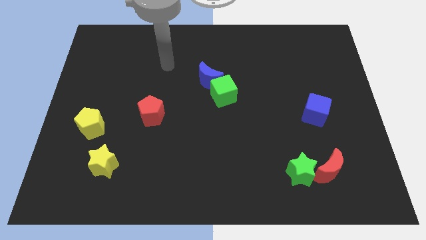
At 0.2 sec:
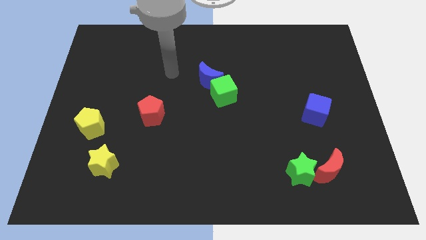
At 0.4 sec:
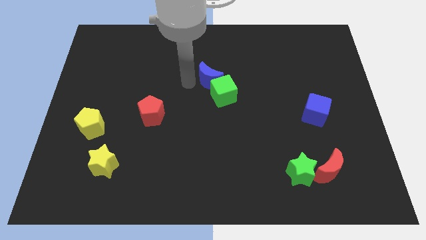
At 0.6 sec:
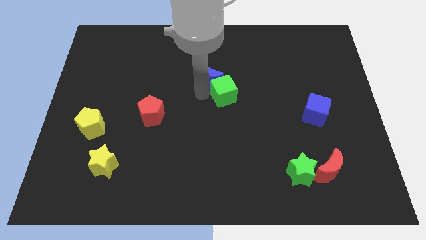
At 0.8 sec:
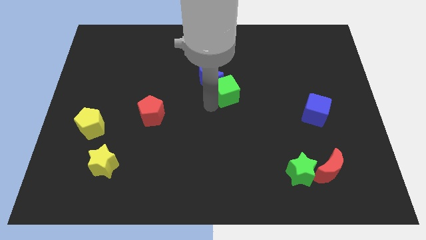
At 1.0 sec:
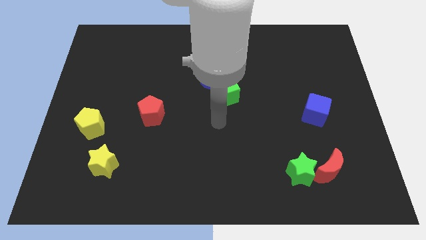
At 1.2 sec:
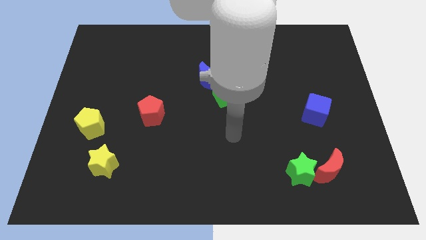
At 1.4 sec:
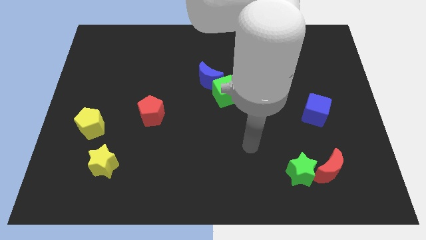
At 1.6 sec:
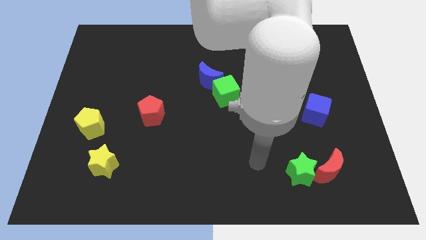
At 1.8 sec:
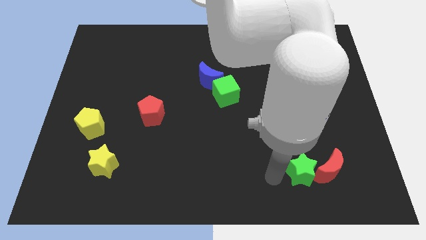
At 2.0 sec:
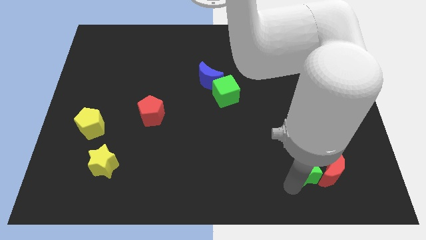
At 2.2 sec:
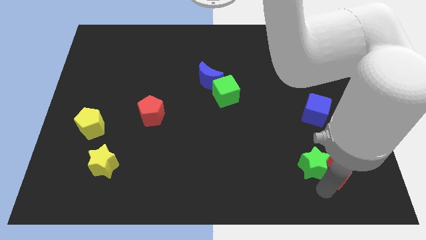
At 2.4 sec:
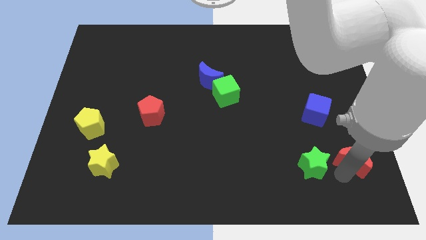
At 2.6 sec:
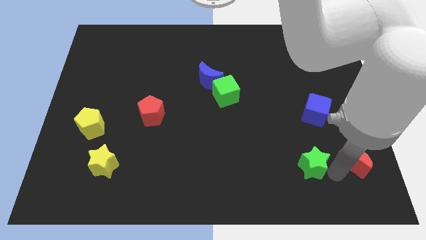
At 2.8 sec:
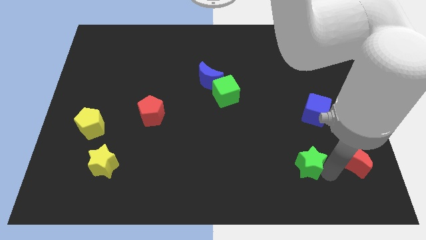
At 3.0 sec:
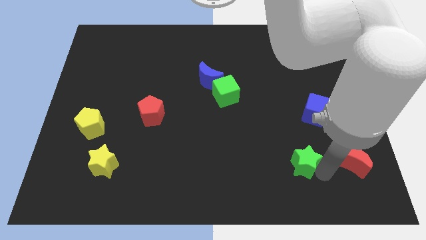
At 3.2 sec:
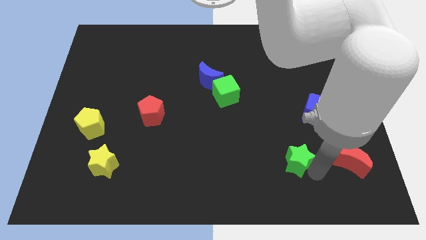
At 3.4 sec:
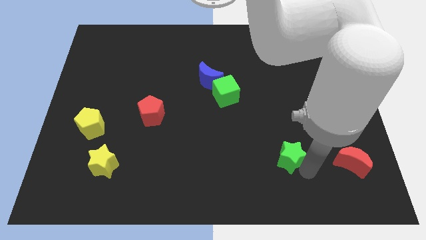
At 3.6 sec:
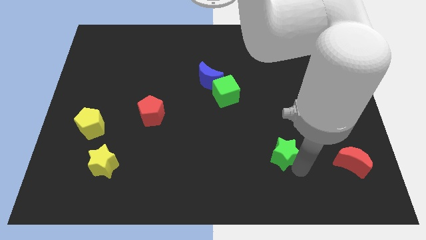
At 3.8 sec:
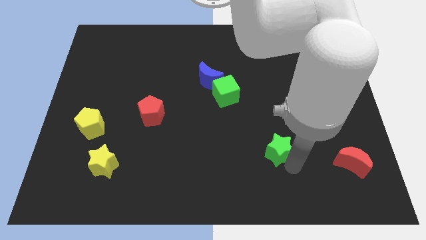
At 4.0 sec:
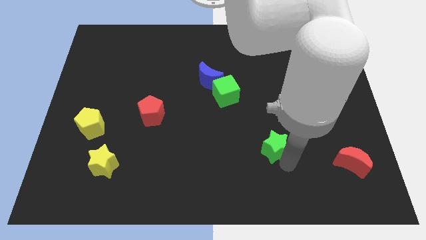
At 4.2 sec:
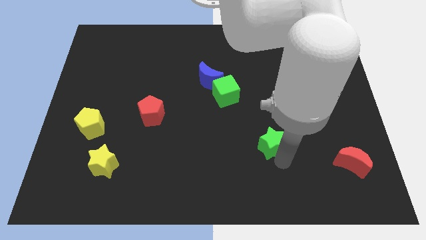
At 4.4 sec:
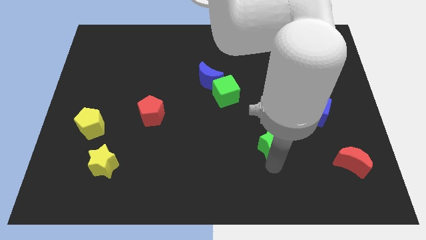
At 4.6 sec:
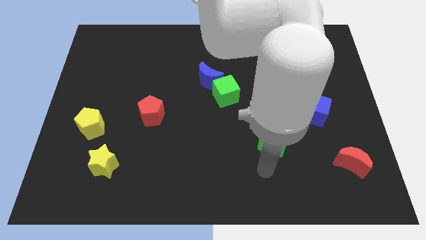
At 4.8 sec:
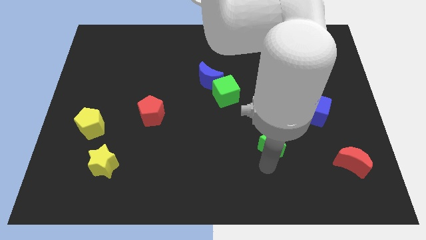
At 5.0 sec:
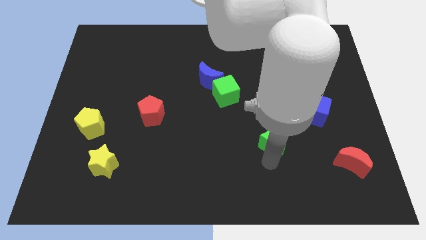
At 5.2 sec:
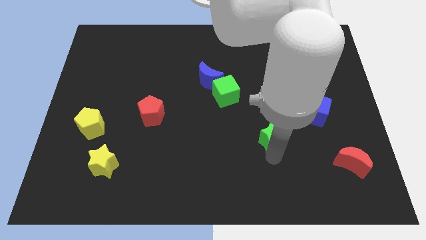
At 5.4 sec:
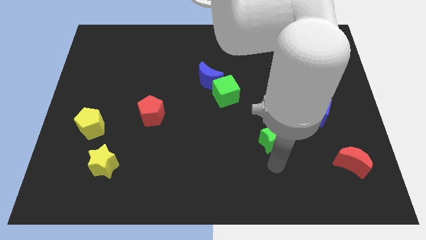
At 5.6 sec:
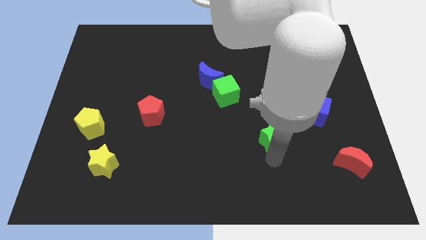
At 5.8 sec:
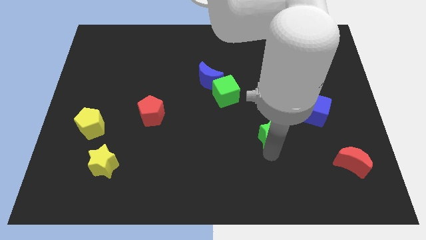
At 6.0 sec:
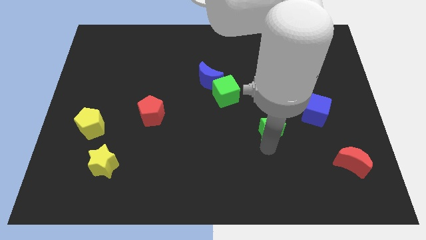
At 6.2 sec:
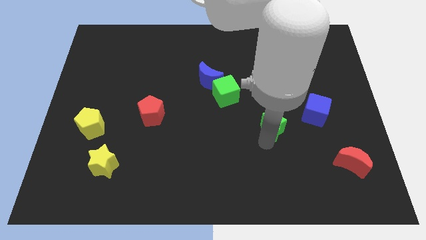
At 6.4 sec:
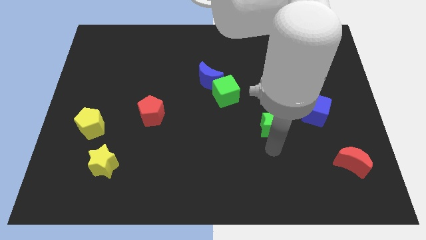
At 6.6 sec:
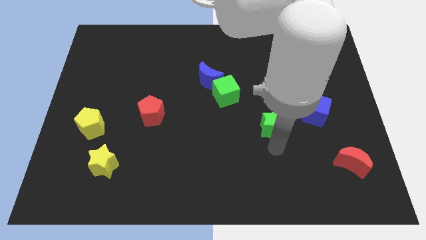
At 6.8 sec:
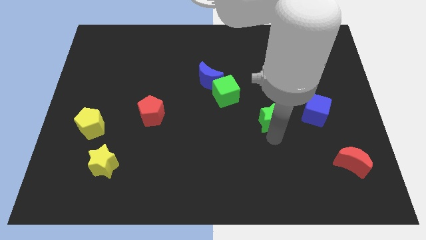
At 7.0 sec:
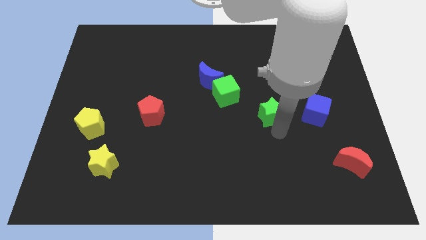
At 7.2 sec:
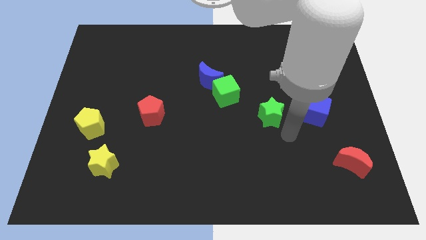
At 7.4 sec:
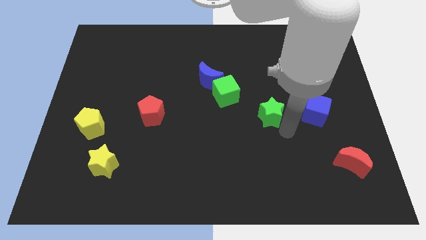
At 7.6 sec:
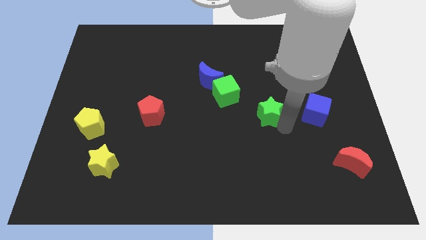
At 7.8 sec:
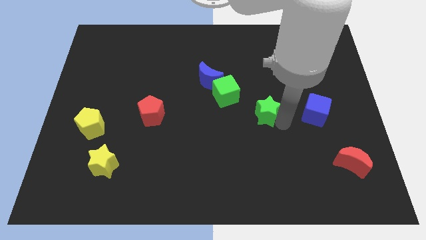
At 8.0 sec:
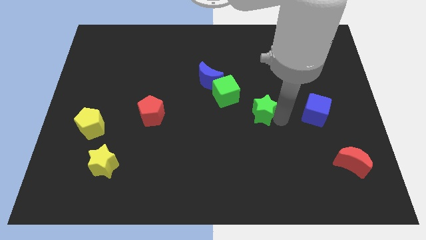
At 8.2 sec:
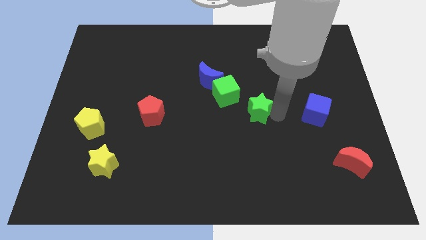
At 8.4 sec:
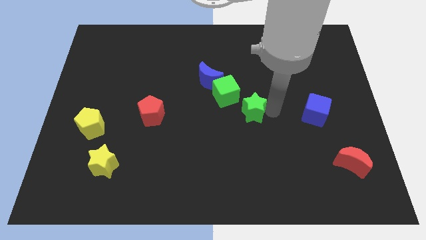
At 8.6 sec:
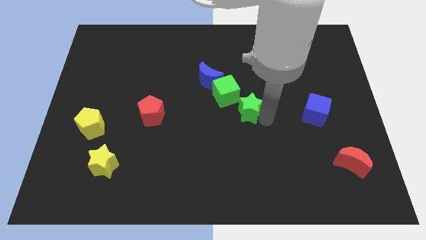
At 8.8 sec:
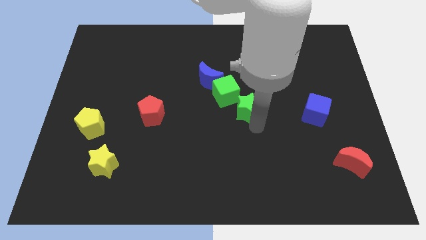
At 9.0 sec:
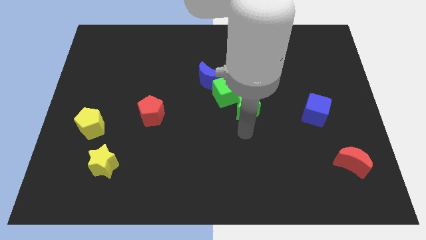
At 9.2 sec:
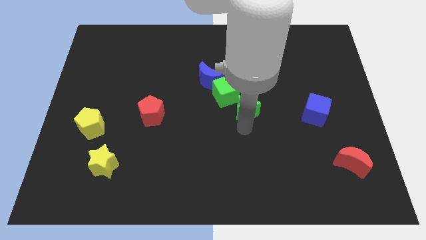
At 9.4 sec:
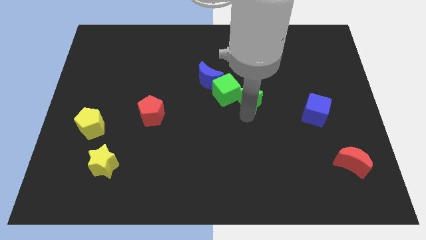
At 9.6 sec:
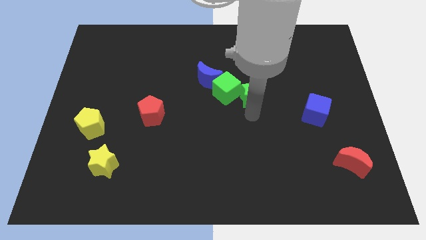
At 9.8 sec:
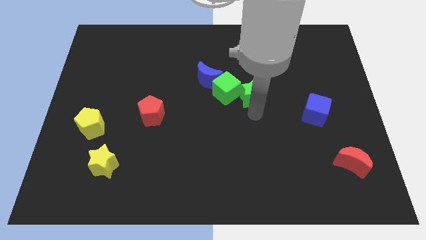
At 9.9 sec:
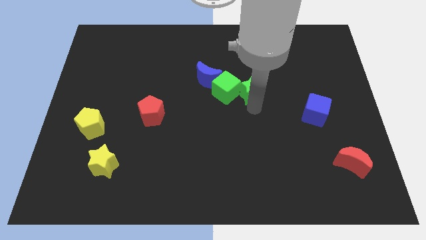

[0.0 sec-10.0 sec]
push the green star just right of the blue moon

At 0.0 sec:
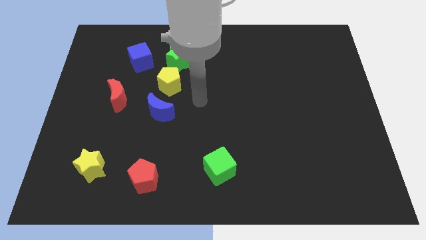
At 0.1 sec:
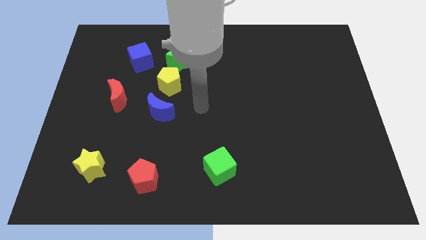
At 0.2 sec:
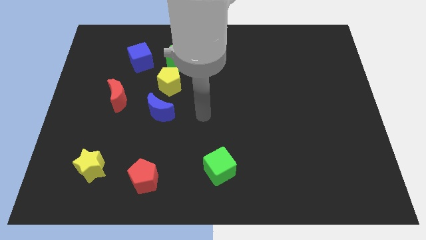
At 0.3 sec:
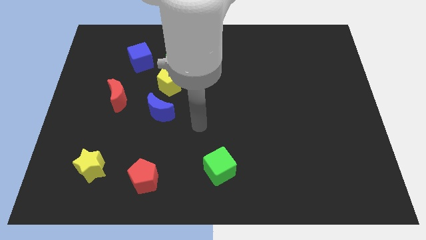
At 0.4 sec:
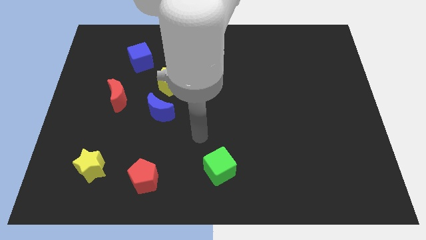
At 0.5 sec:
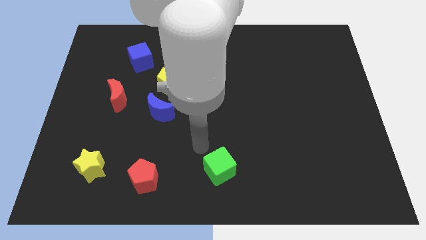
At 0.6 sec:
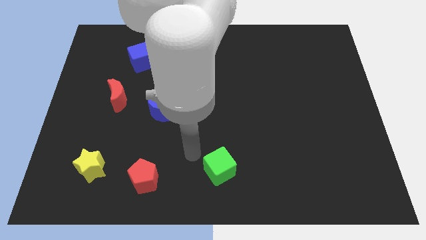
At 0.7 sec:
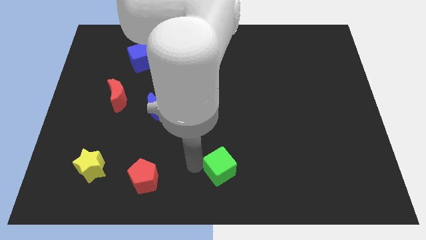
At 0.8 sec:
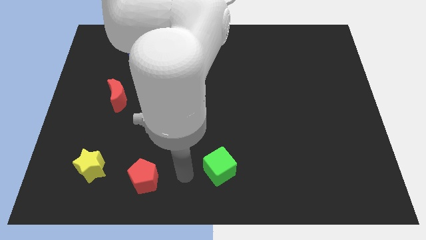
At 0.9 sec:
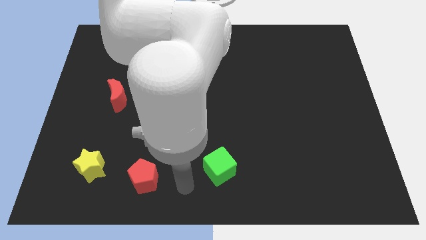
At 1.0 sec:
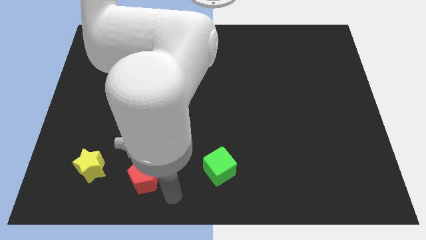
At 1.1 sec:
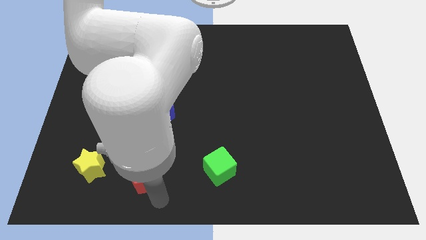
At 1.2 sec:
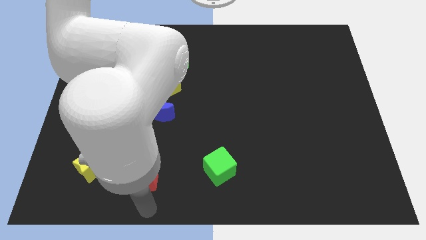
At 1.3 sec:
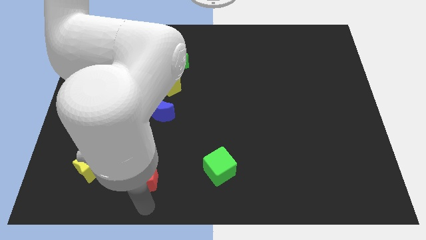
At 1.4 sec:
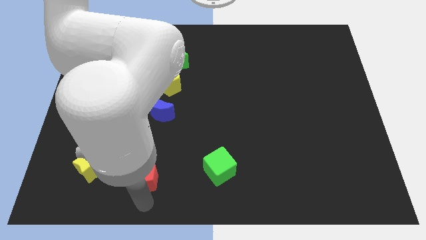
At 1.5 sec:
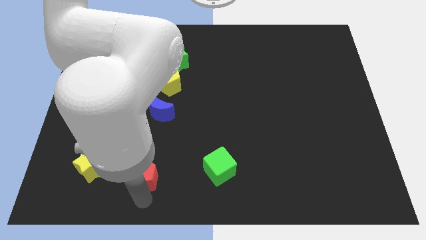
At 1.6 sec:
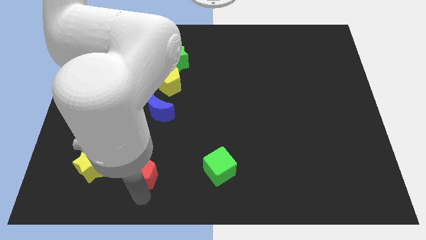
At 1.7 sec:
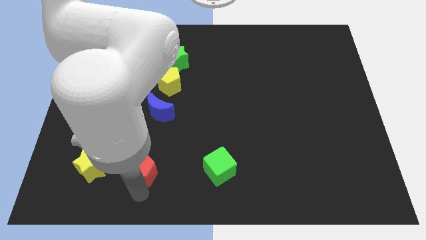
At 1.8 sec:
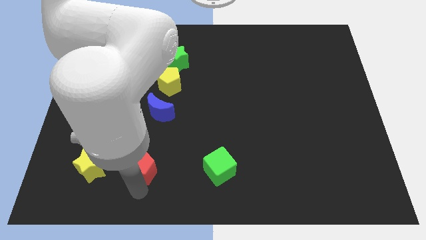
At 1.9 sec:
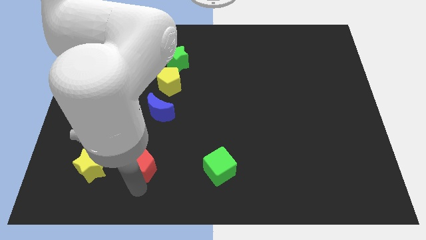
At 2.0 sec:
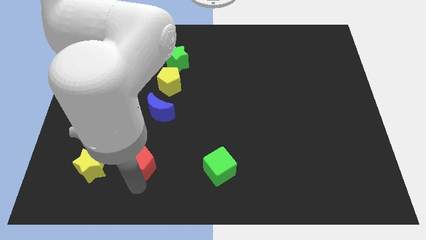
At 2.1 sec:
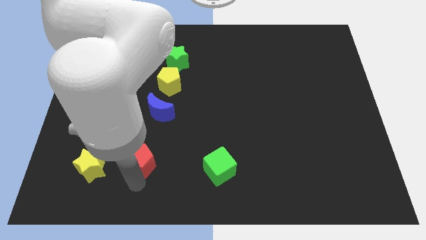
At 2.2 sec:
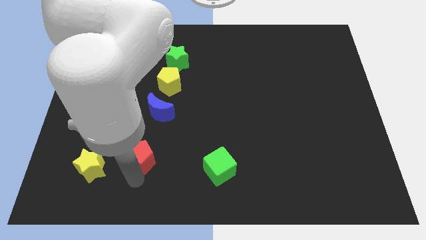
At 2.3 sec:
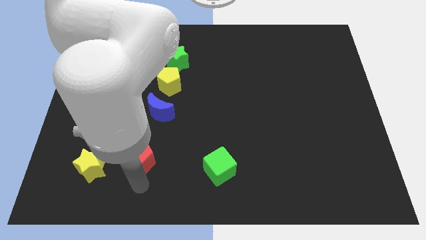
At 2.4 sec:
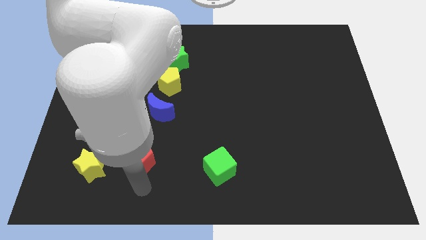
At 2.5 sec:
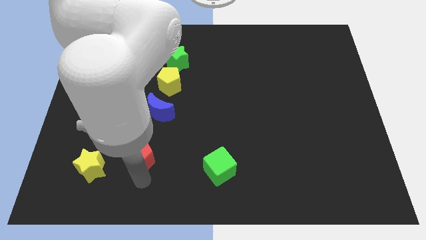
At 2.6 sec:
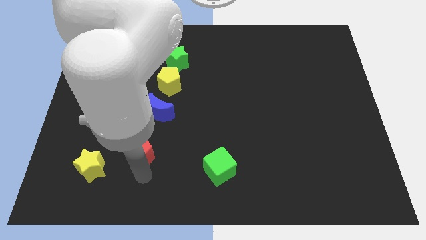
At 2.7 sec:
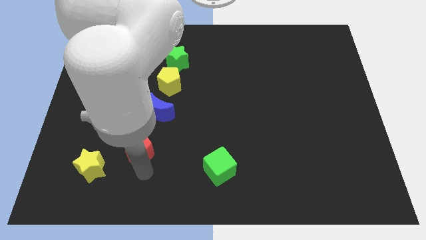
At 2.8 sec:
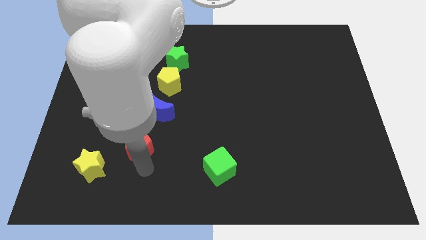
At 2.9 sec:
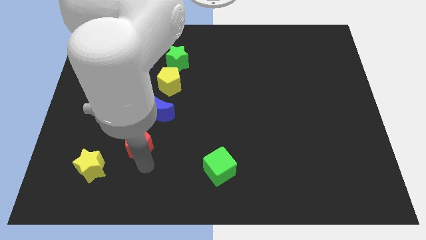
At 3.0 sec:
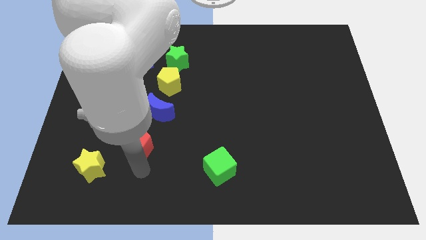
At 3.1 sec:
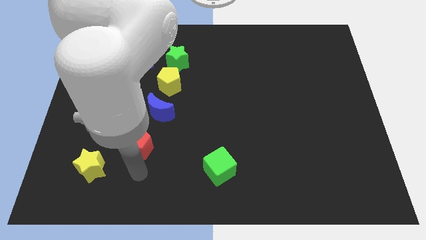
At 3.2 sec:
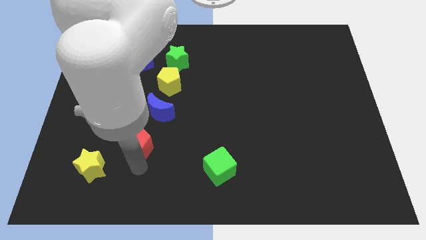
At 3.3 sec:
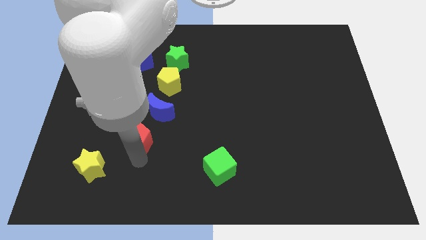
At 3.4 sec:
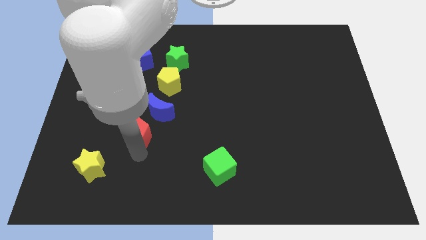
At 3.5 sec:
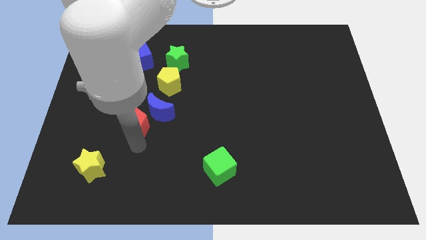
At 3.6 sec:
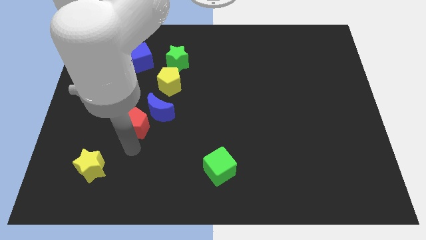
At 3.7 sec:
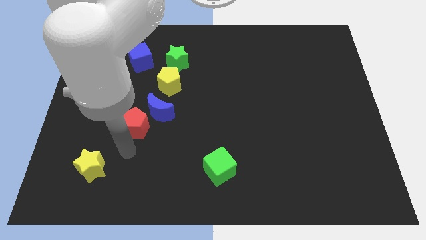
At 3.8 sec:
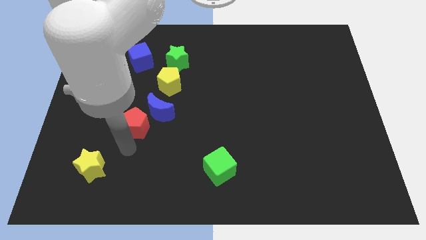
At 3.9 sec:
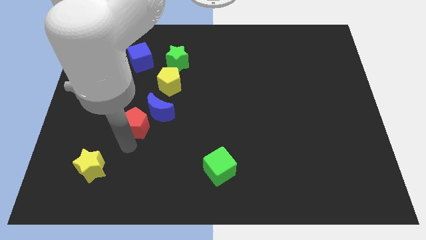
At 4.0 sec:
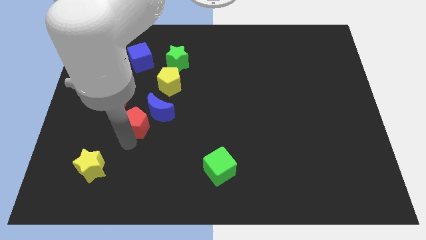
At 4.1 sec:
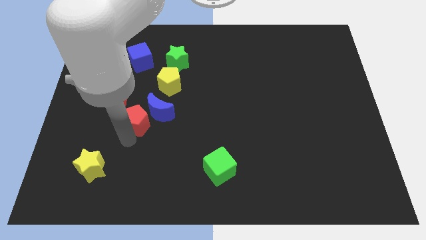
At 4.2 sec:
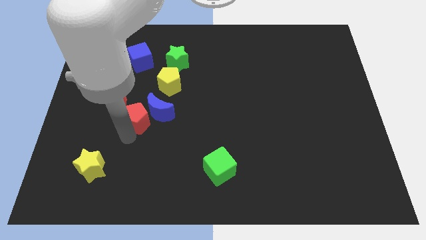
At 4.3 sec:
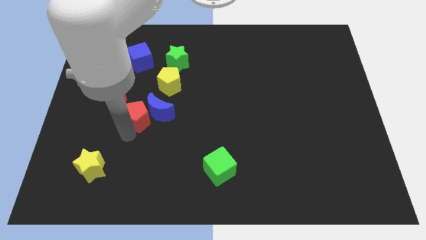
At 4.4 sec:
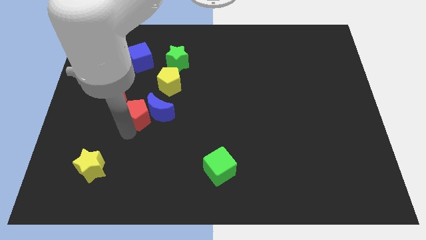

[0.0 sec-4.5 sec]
move the red pentagon to the top left side of the blue moon
